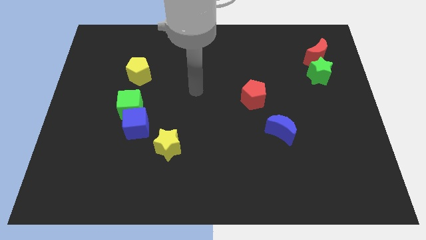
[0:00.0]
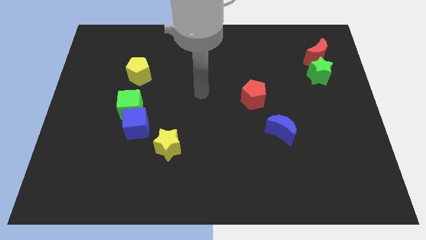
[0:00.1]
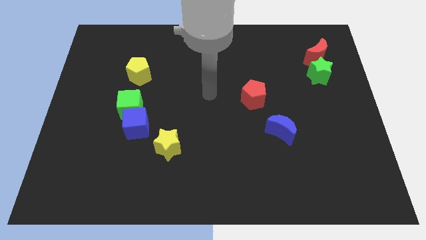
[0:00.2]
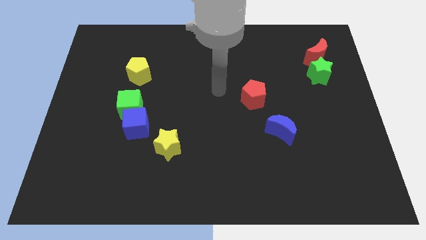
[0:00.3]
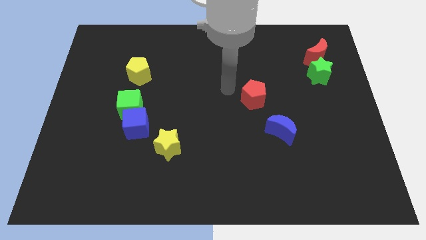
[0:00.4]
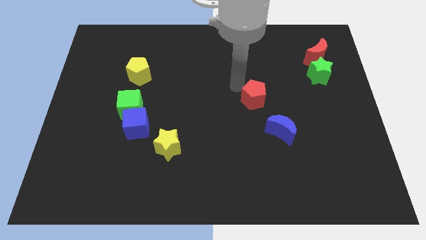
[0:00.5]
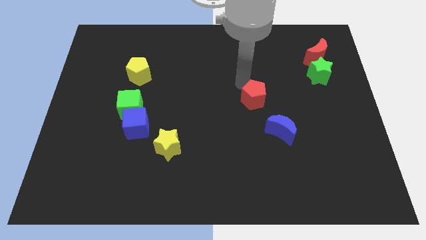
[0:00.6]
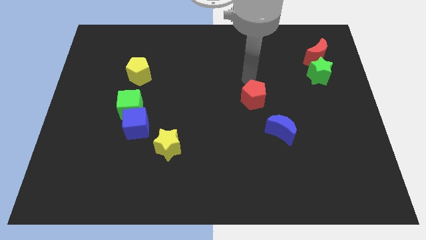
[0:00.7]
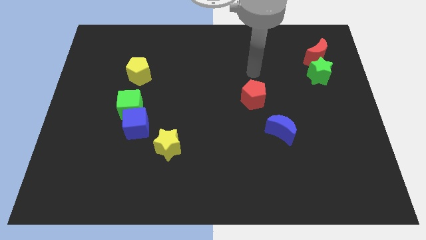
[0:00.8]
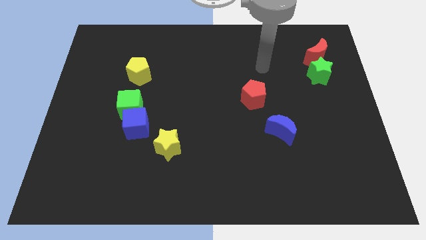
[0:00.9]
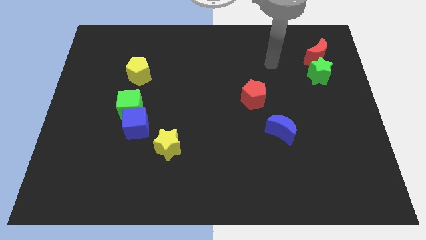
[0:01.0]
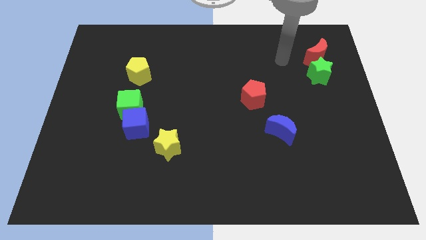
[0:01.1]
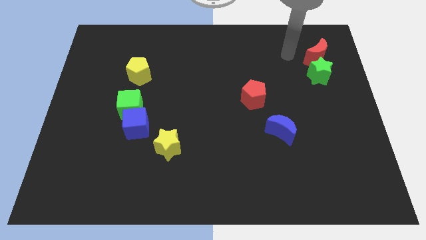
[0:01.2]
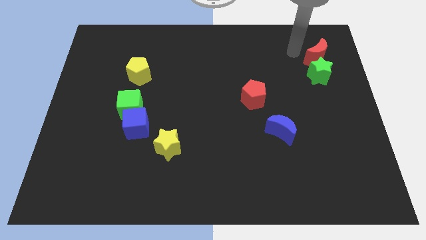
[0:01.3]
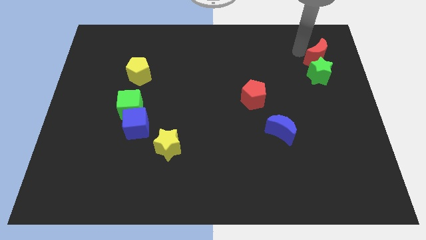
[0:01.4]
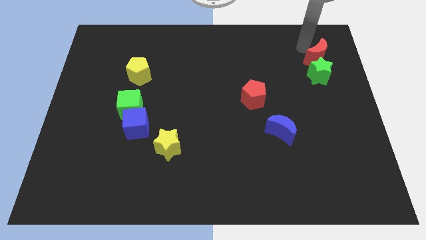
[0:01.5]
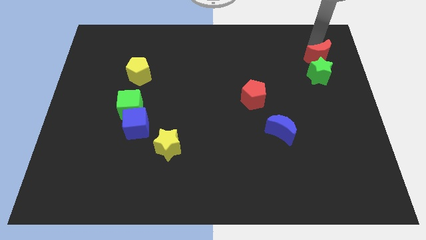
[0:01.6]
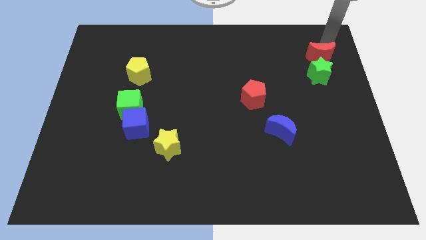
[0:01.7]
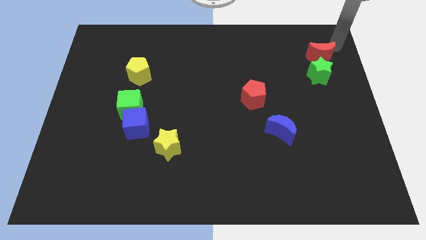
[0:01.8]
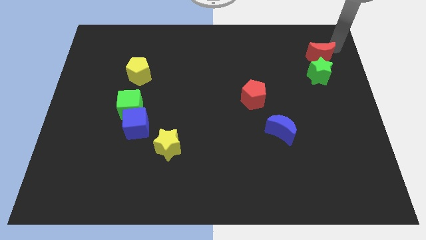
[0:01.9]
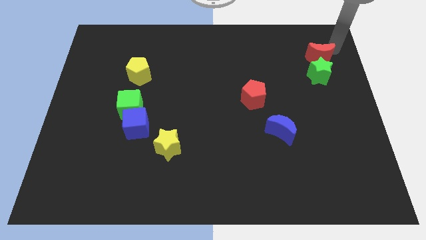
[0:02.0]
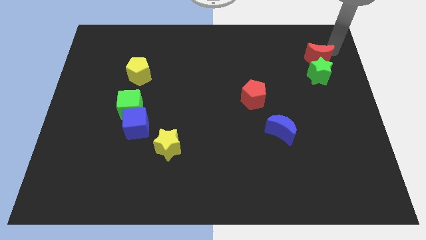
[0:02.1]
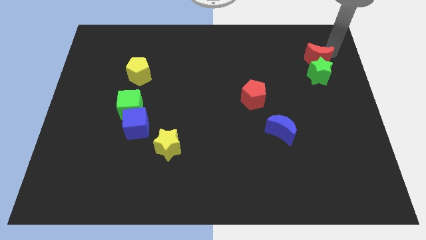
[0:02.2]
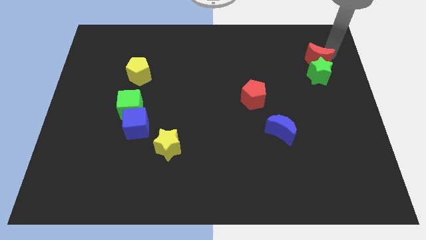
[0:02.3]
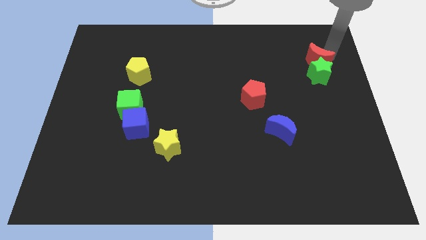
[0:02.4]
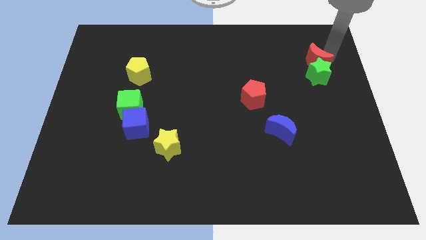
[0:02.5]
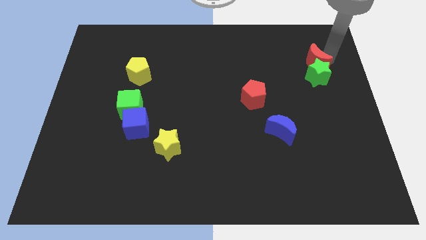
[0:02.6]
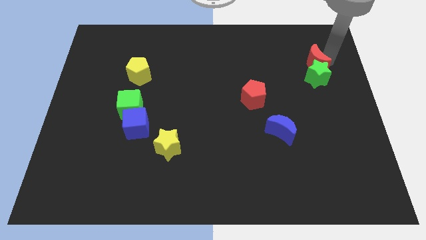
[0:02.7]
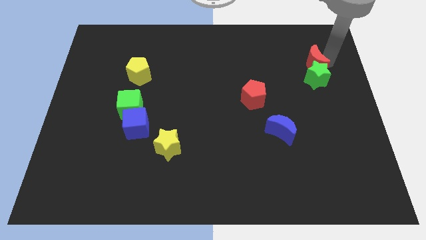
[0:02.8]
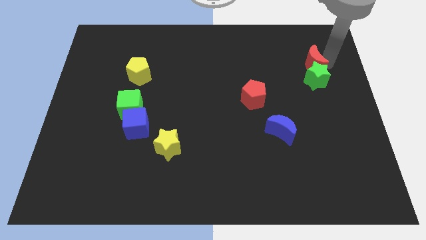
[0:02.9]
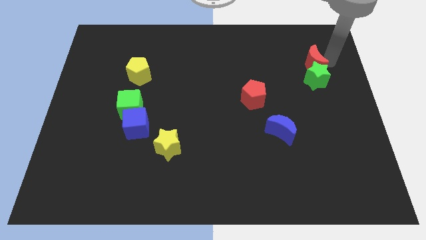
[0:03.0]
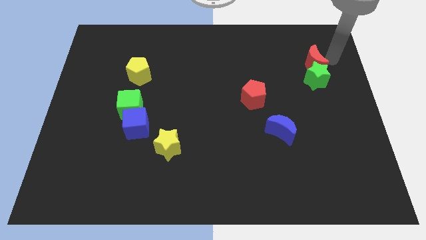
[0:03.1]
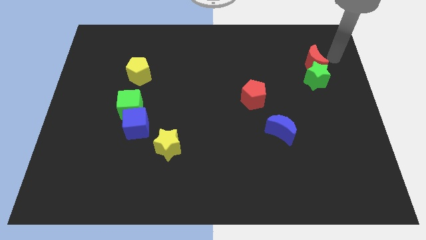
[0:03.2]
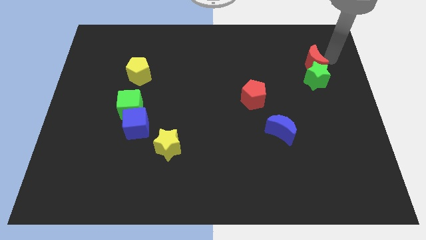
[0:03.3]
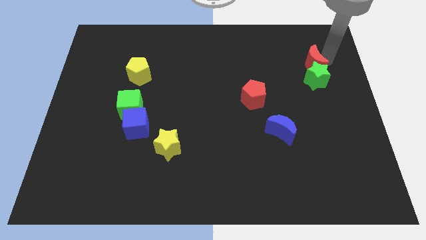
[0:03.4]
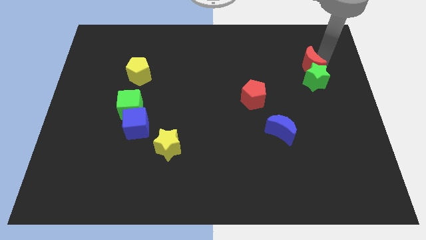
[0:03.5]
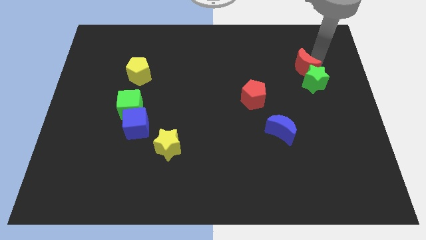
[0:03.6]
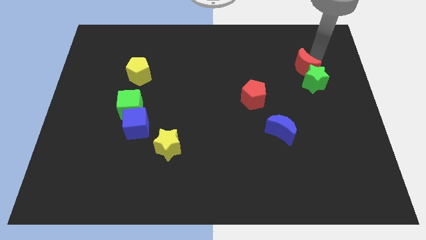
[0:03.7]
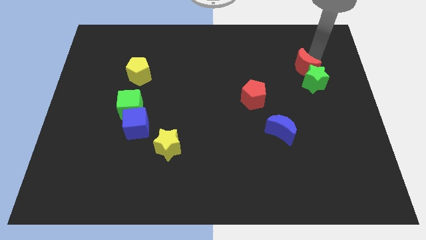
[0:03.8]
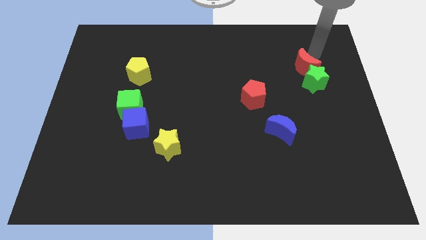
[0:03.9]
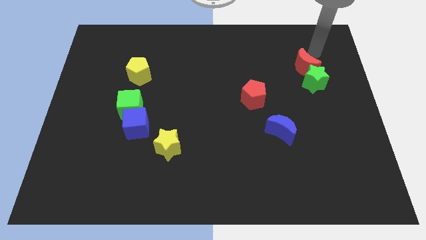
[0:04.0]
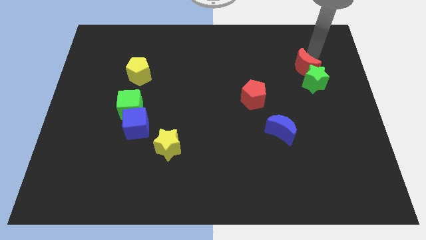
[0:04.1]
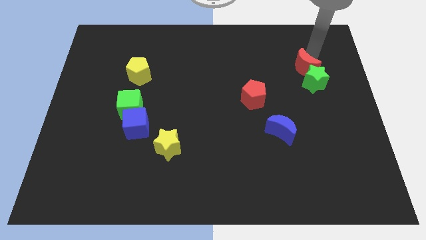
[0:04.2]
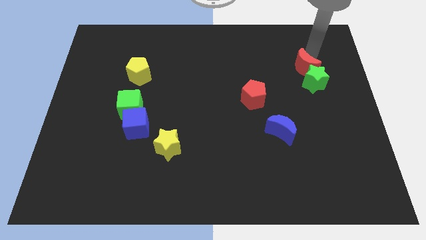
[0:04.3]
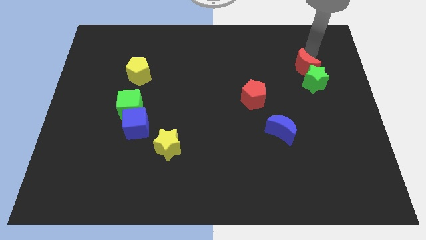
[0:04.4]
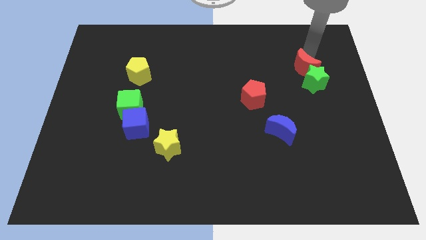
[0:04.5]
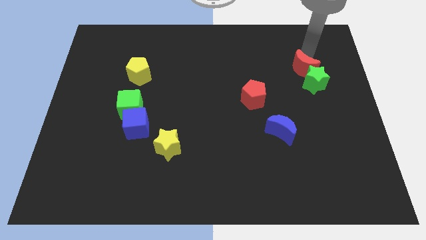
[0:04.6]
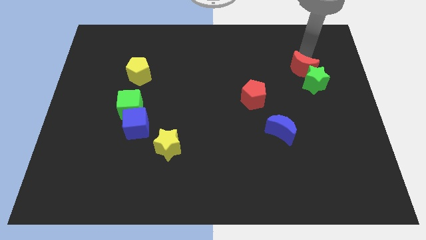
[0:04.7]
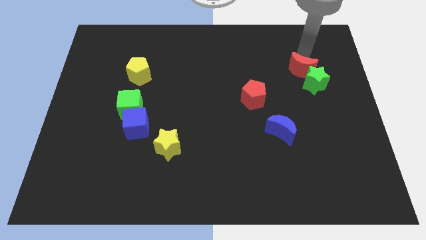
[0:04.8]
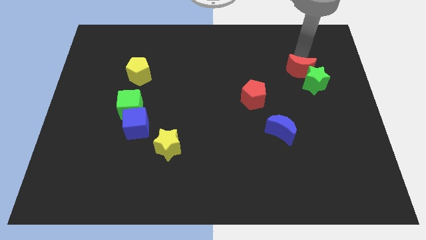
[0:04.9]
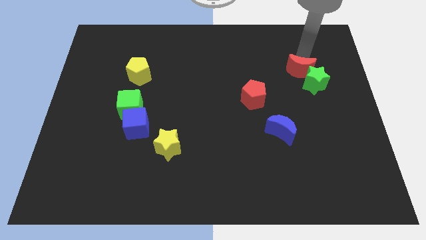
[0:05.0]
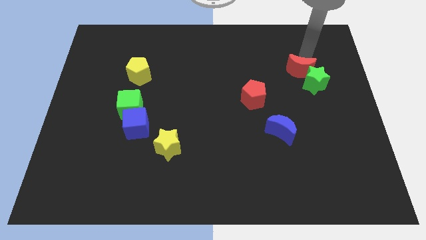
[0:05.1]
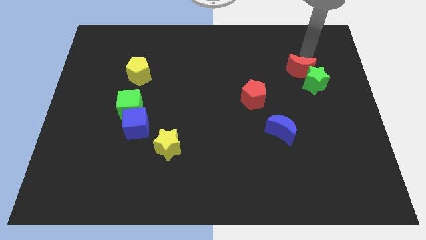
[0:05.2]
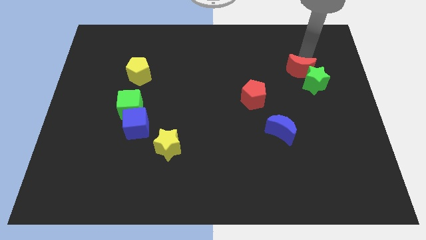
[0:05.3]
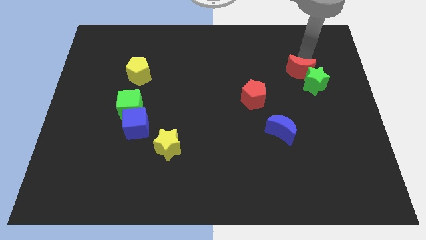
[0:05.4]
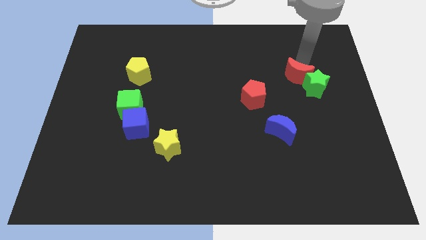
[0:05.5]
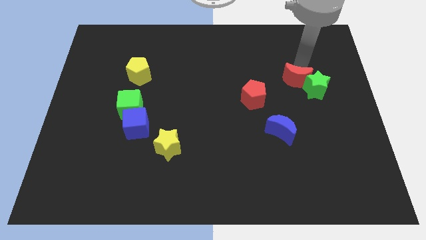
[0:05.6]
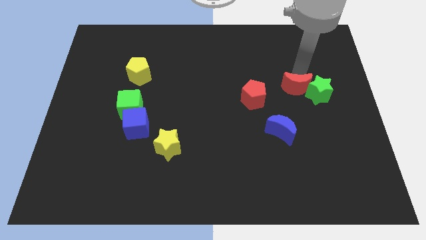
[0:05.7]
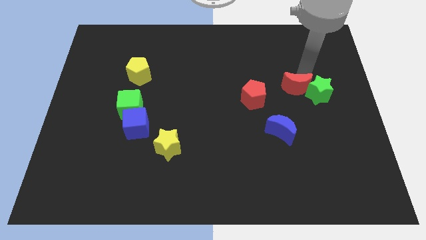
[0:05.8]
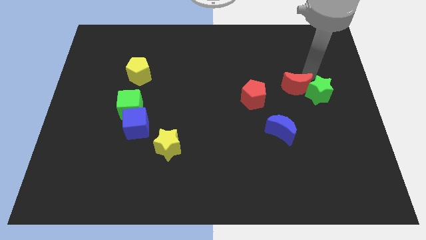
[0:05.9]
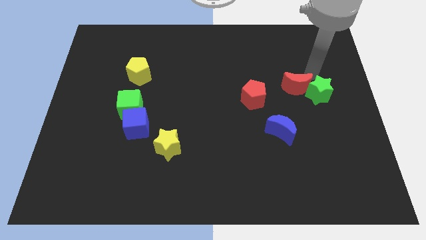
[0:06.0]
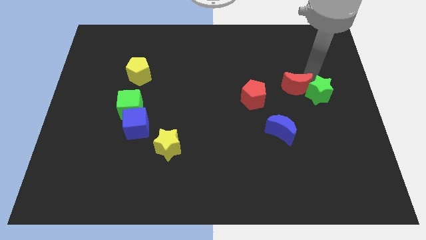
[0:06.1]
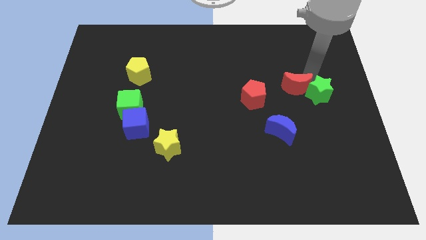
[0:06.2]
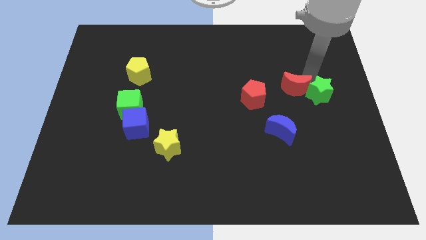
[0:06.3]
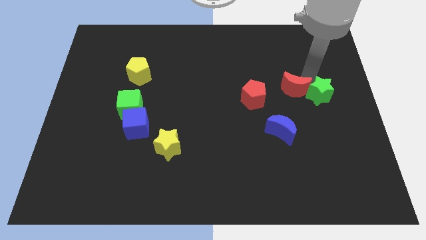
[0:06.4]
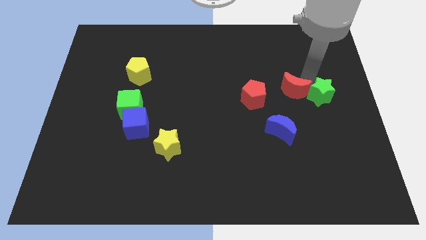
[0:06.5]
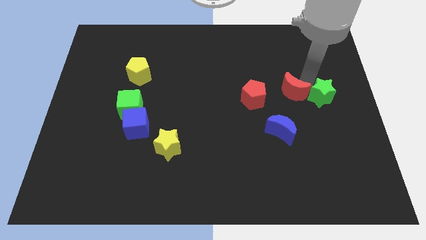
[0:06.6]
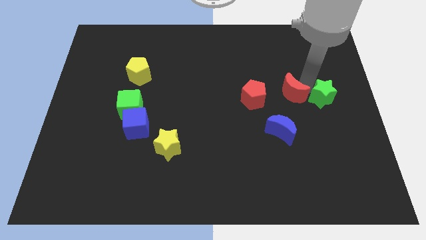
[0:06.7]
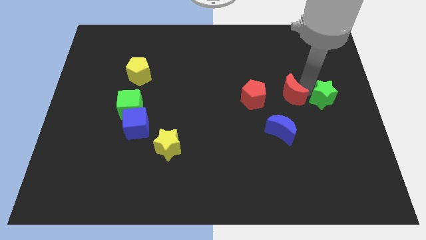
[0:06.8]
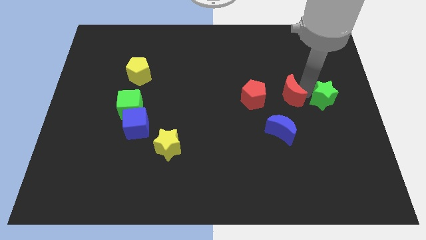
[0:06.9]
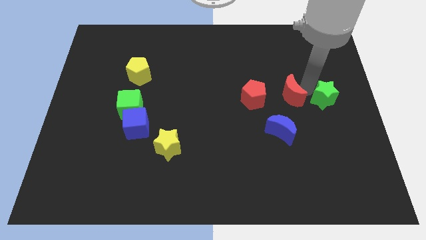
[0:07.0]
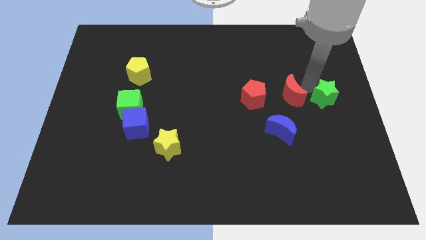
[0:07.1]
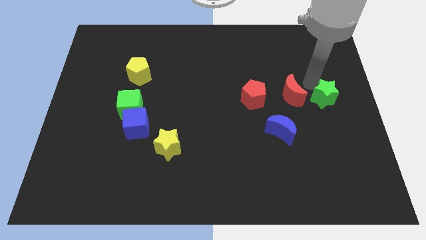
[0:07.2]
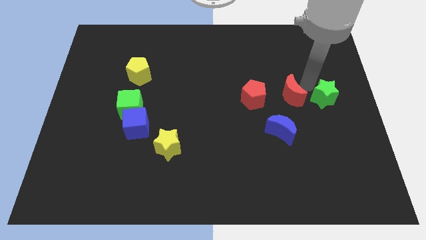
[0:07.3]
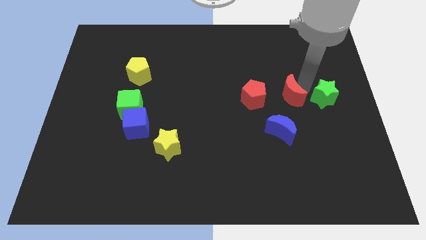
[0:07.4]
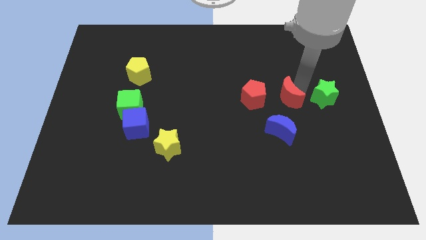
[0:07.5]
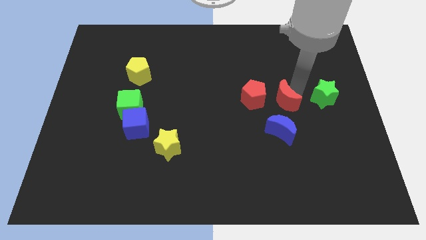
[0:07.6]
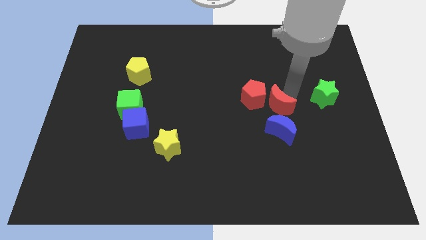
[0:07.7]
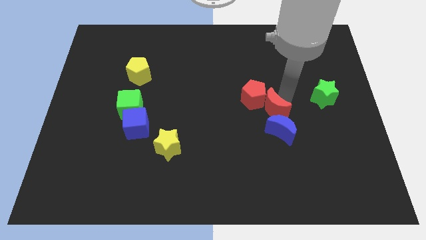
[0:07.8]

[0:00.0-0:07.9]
slide the red moon diagonally downwards and to the left

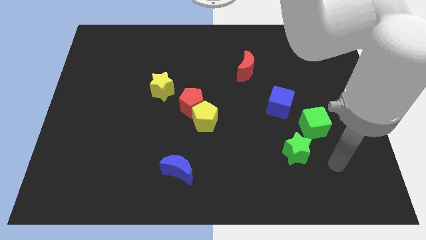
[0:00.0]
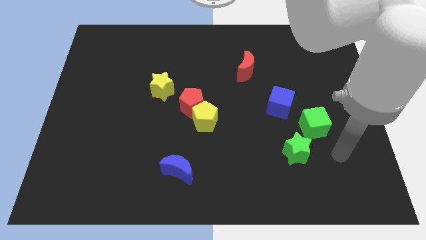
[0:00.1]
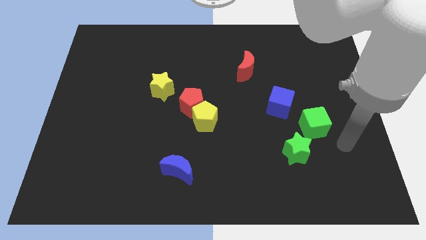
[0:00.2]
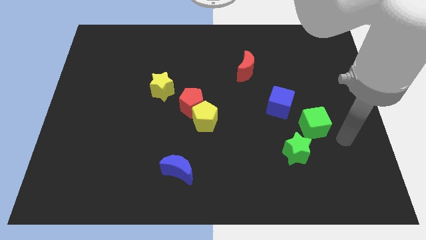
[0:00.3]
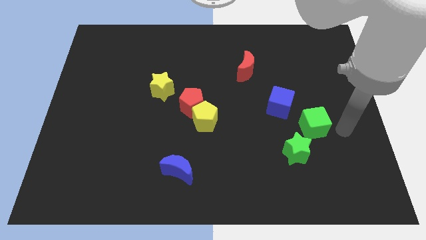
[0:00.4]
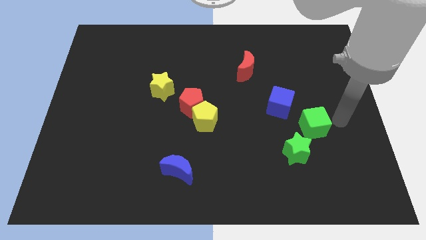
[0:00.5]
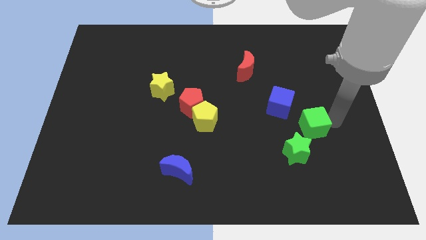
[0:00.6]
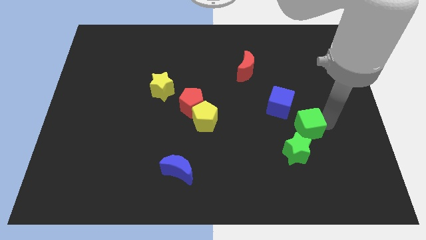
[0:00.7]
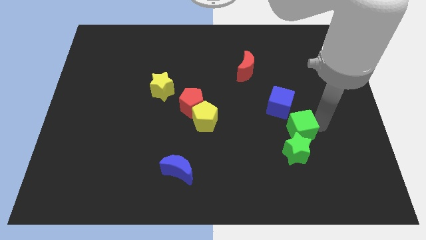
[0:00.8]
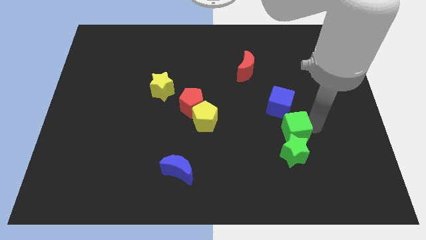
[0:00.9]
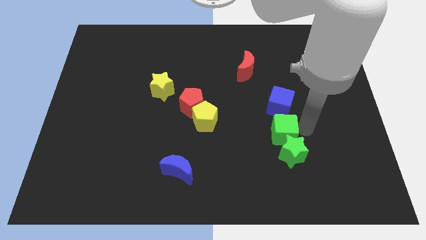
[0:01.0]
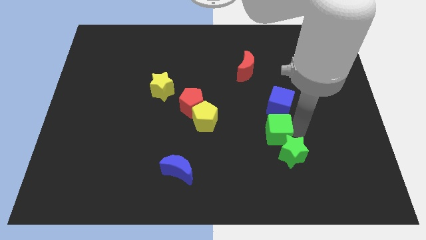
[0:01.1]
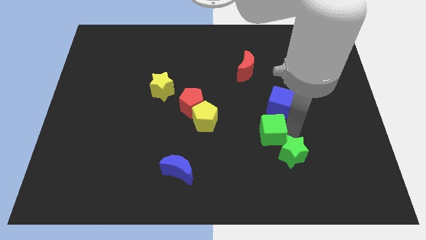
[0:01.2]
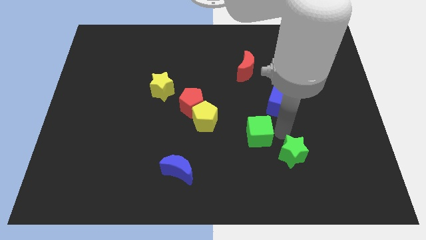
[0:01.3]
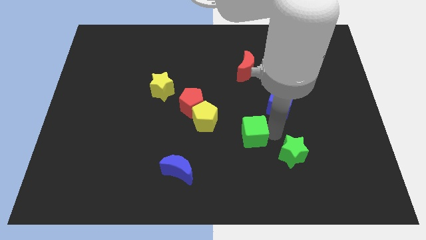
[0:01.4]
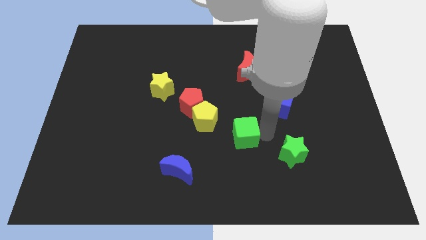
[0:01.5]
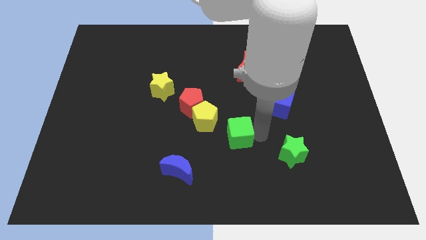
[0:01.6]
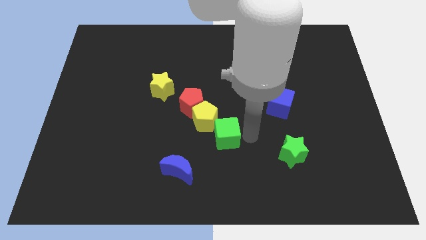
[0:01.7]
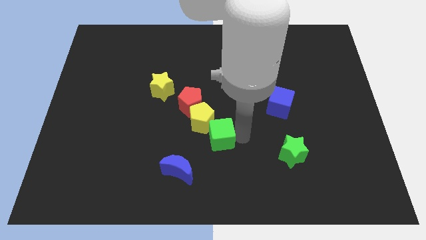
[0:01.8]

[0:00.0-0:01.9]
move the green cube left
